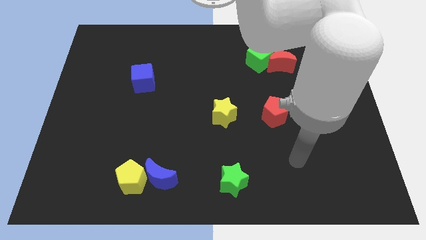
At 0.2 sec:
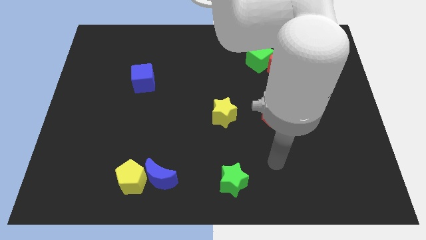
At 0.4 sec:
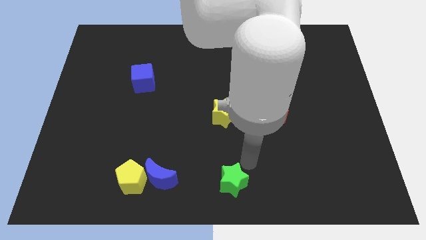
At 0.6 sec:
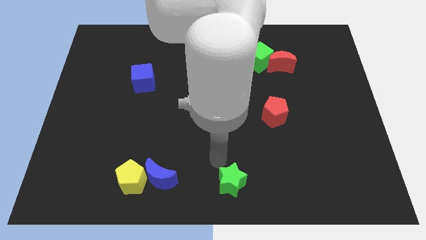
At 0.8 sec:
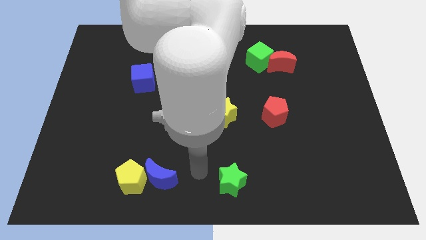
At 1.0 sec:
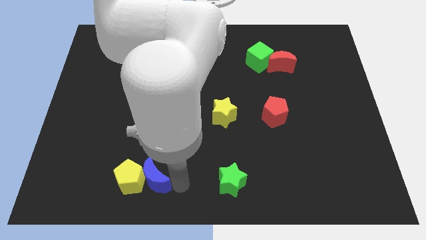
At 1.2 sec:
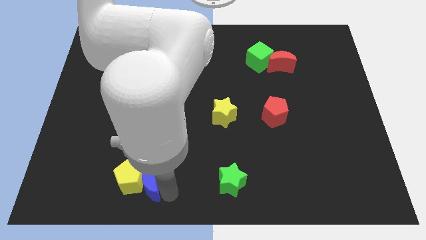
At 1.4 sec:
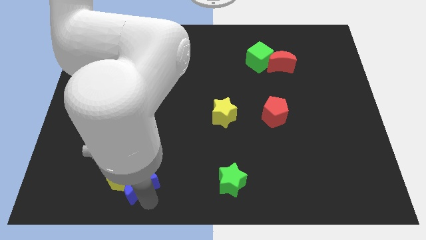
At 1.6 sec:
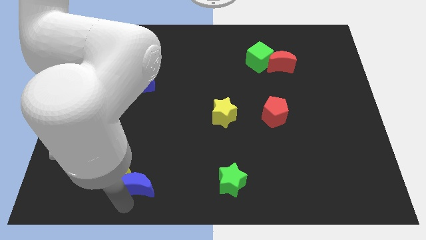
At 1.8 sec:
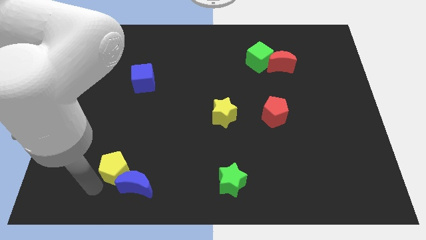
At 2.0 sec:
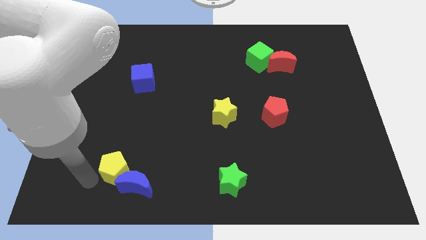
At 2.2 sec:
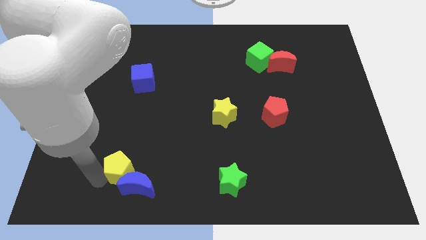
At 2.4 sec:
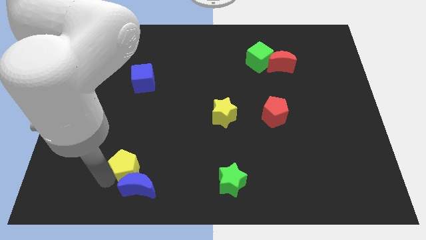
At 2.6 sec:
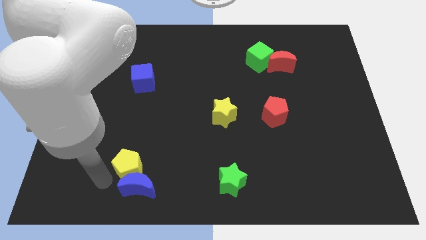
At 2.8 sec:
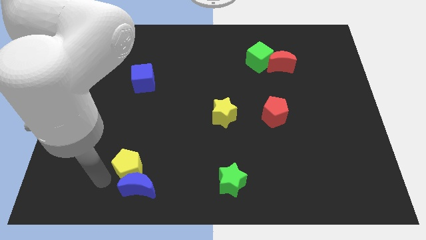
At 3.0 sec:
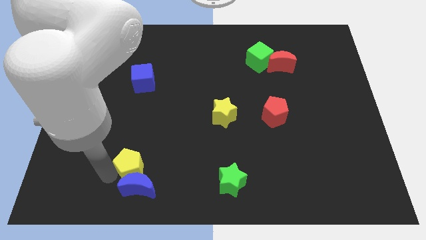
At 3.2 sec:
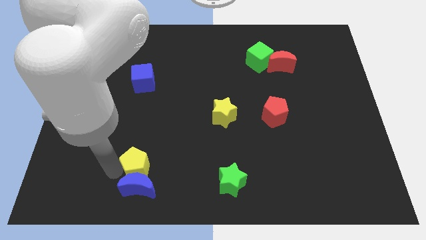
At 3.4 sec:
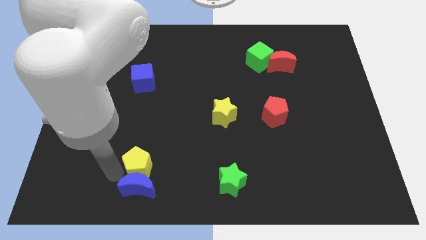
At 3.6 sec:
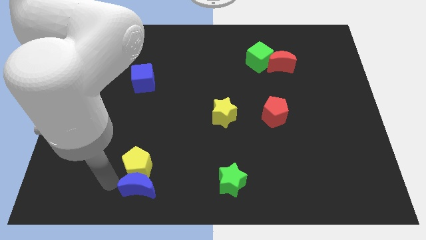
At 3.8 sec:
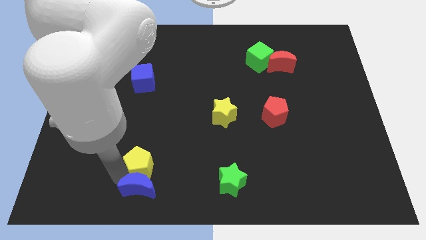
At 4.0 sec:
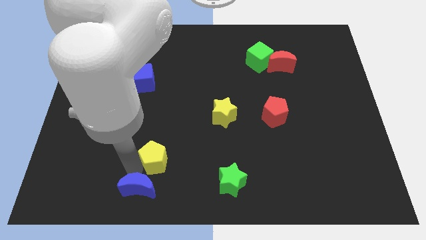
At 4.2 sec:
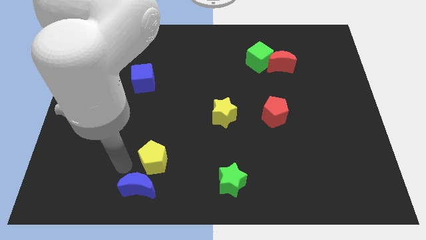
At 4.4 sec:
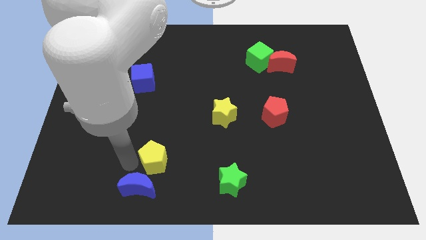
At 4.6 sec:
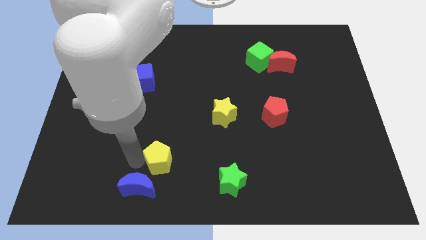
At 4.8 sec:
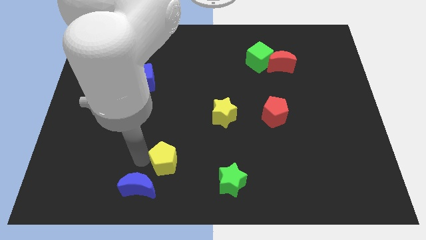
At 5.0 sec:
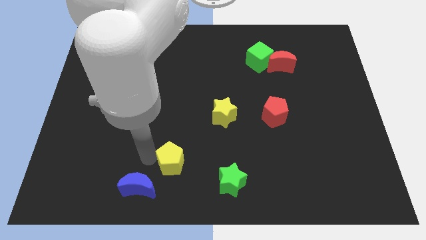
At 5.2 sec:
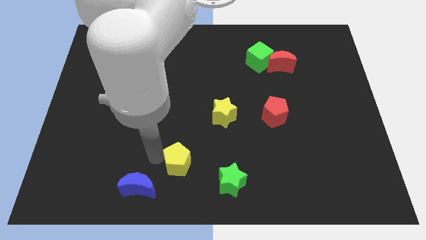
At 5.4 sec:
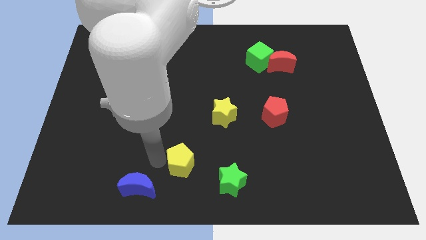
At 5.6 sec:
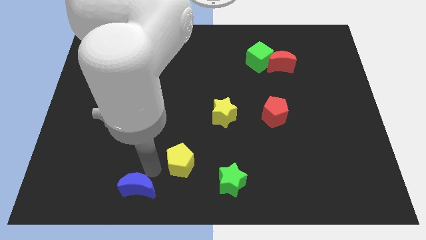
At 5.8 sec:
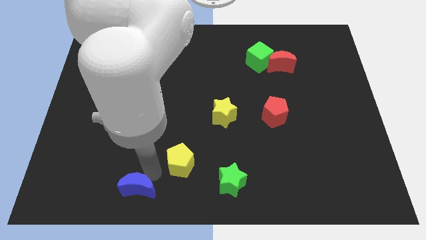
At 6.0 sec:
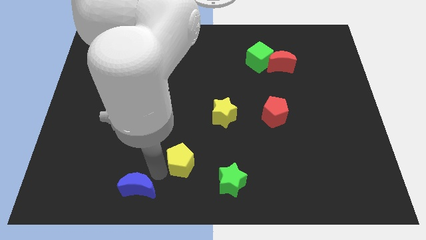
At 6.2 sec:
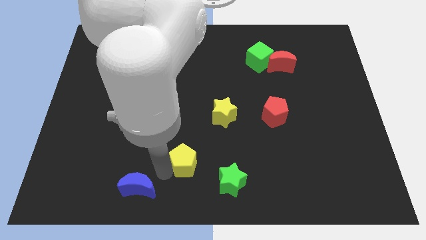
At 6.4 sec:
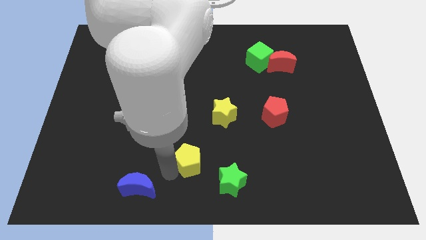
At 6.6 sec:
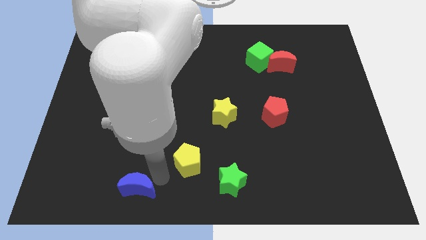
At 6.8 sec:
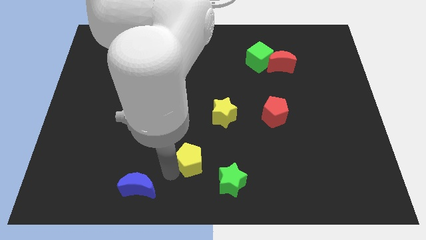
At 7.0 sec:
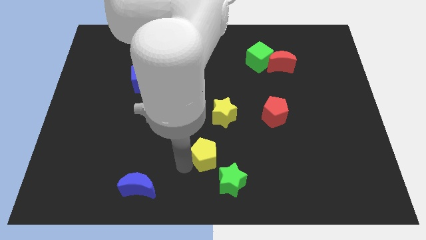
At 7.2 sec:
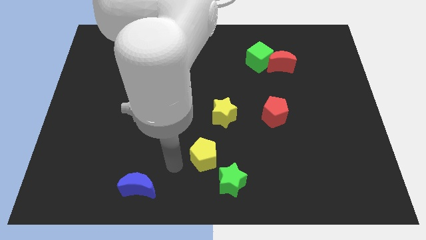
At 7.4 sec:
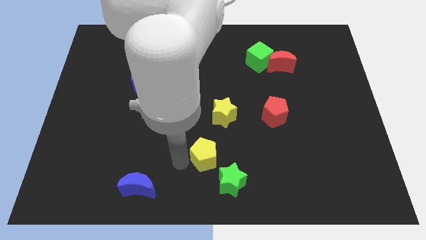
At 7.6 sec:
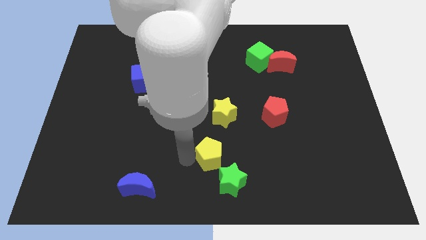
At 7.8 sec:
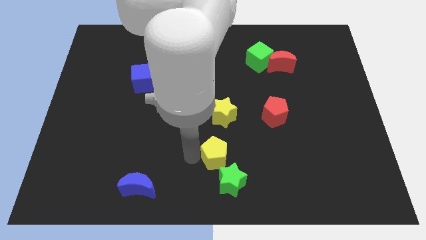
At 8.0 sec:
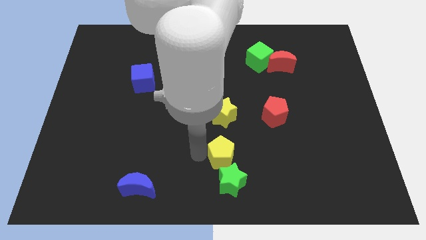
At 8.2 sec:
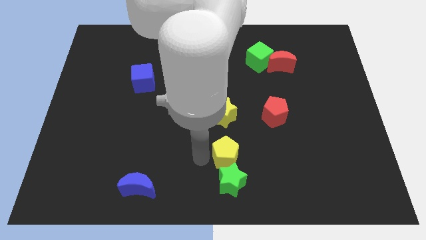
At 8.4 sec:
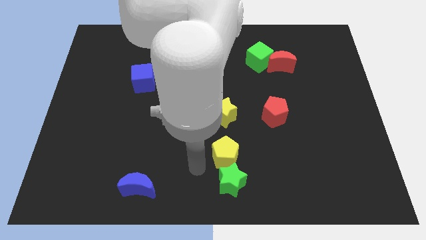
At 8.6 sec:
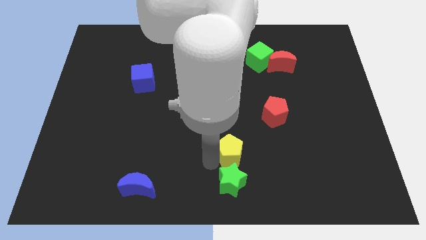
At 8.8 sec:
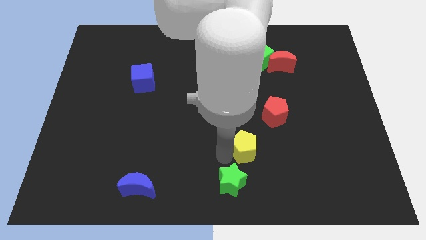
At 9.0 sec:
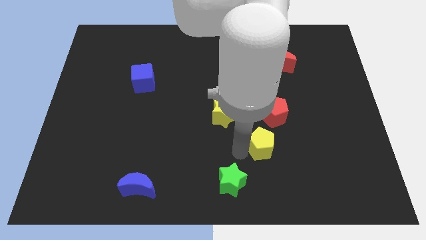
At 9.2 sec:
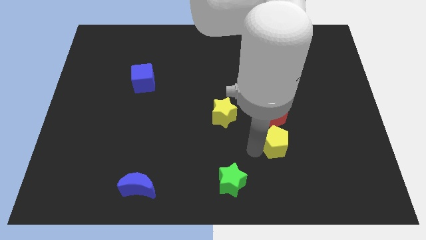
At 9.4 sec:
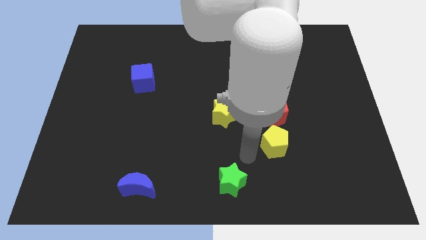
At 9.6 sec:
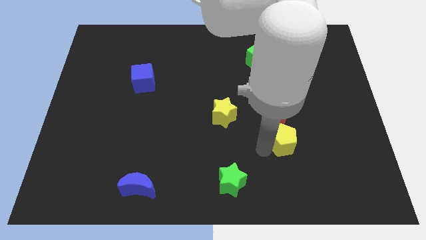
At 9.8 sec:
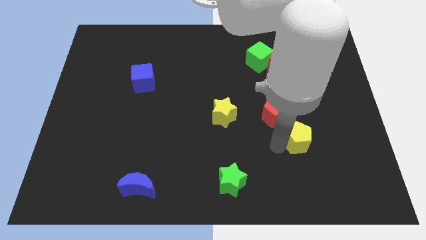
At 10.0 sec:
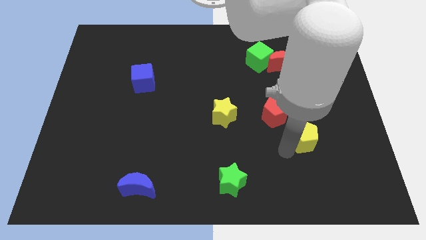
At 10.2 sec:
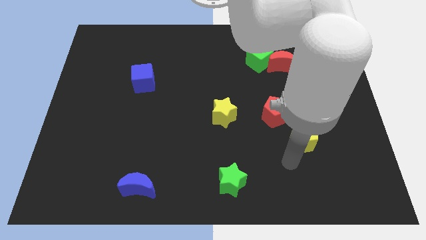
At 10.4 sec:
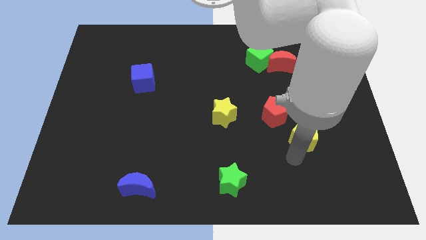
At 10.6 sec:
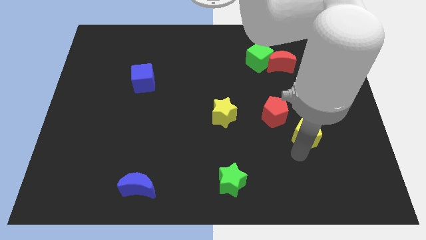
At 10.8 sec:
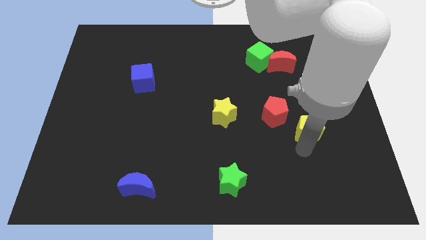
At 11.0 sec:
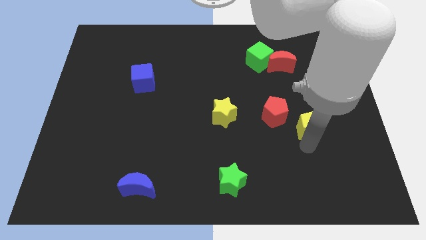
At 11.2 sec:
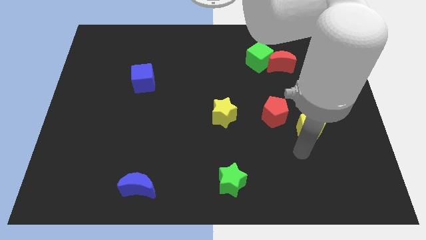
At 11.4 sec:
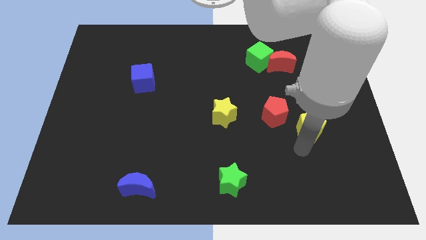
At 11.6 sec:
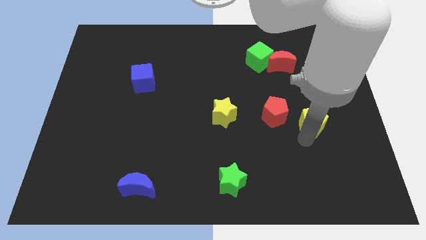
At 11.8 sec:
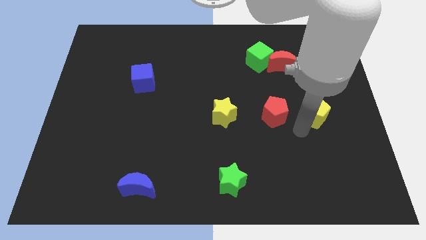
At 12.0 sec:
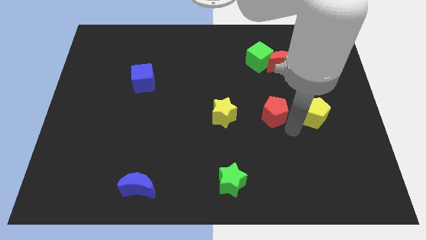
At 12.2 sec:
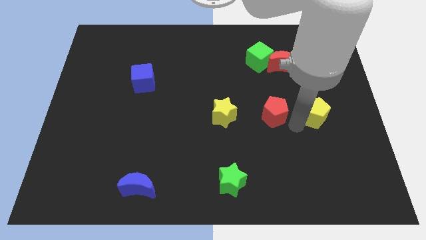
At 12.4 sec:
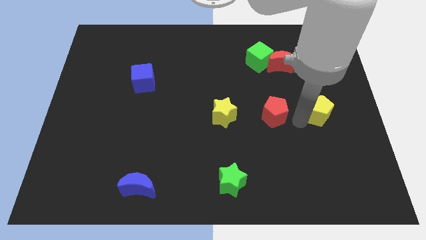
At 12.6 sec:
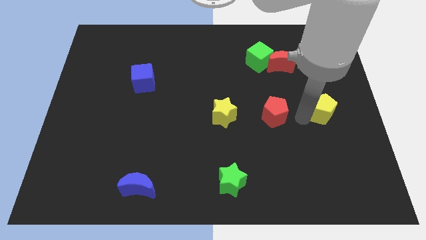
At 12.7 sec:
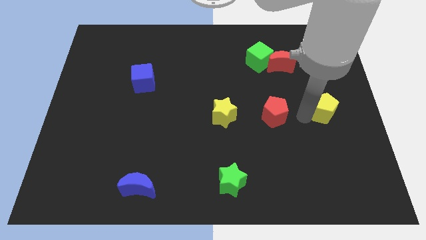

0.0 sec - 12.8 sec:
push the yellow pentagon to the right side

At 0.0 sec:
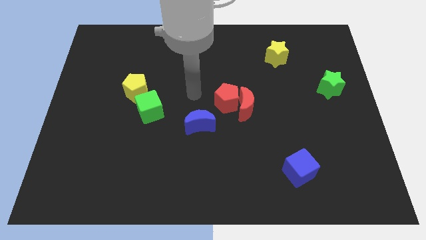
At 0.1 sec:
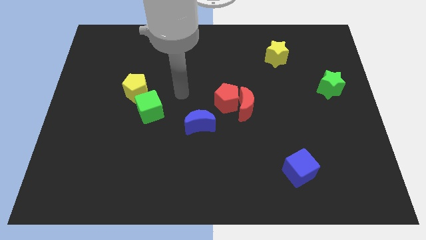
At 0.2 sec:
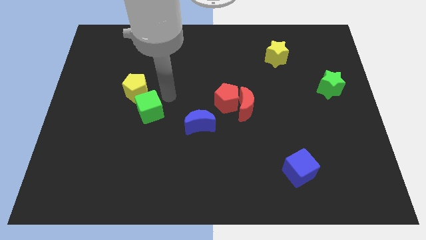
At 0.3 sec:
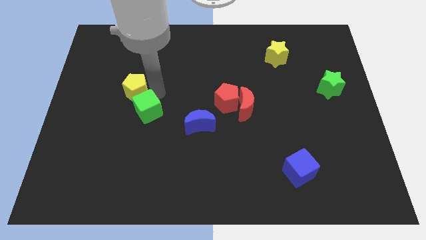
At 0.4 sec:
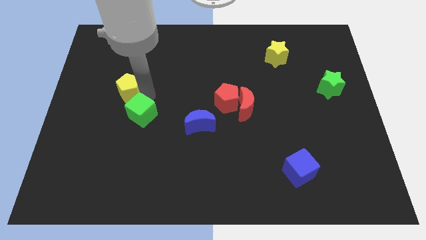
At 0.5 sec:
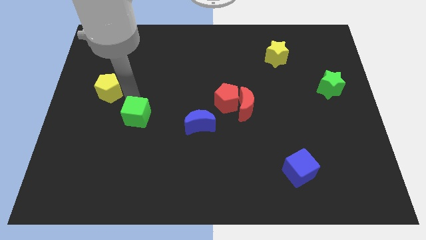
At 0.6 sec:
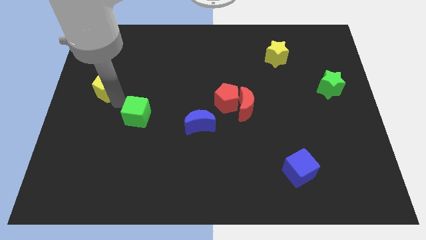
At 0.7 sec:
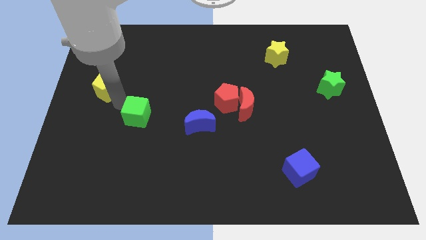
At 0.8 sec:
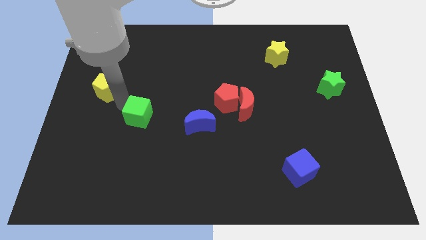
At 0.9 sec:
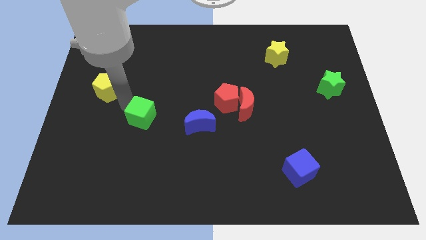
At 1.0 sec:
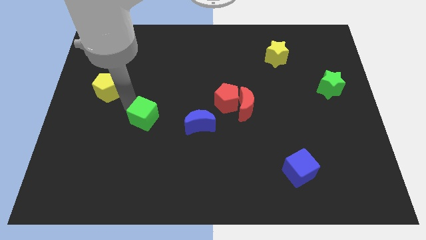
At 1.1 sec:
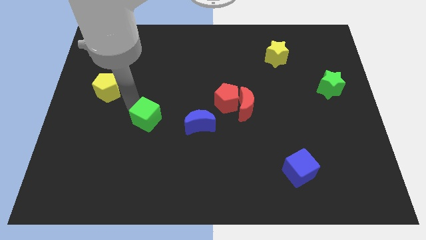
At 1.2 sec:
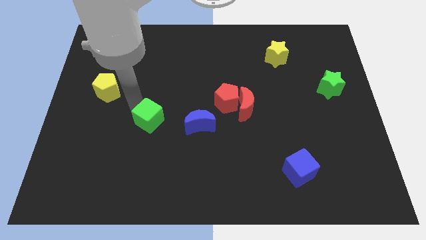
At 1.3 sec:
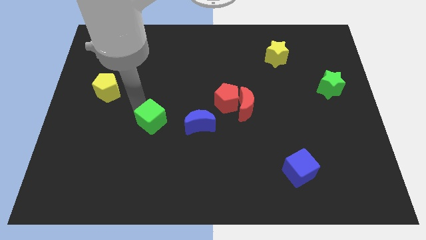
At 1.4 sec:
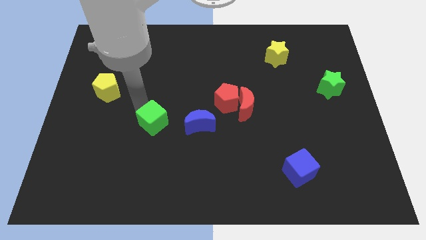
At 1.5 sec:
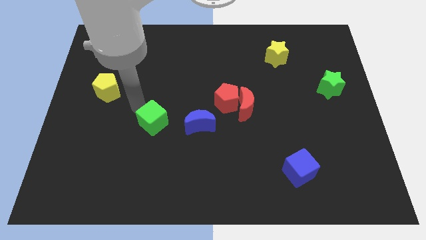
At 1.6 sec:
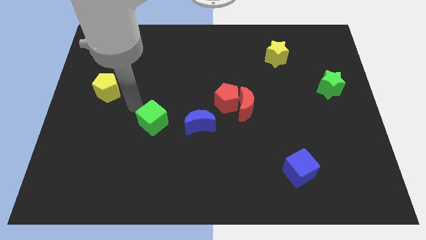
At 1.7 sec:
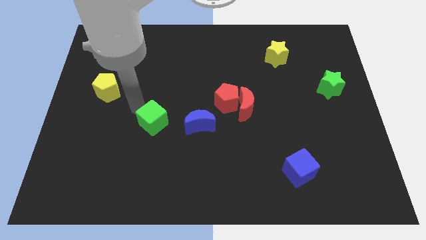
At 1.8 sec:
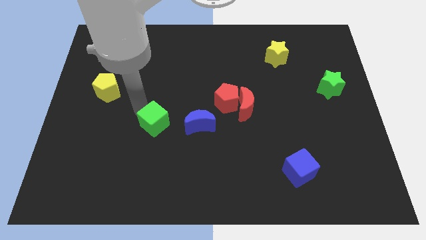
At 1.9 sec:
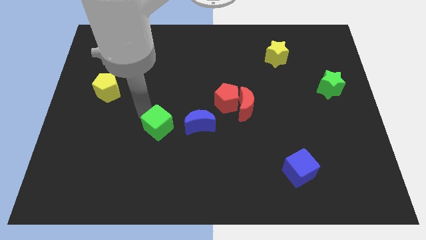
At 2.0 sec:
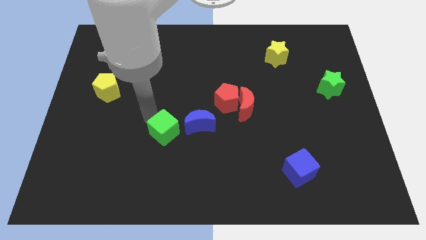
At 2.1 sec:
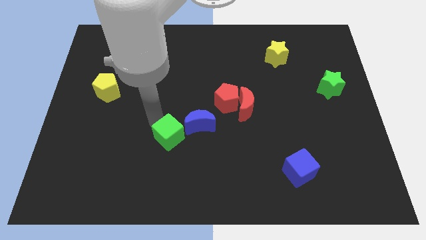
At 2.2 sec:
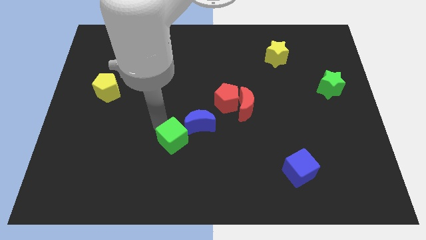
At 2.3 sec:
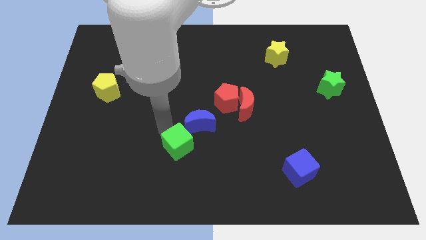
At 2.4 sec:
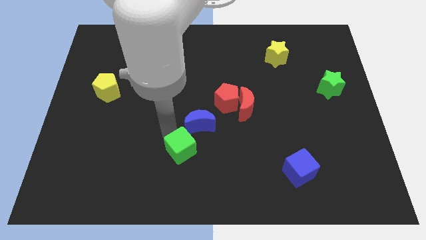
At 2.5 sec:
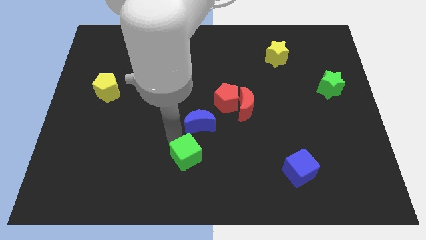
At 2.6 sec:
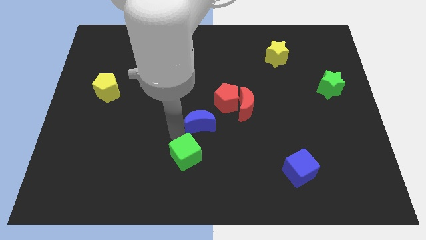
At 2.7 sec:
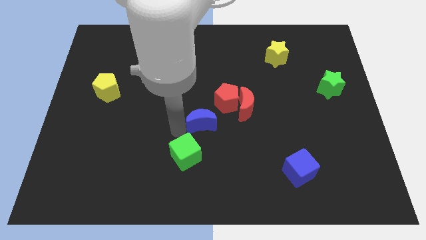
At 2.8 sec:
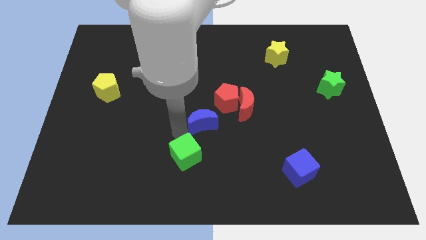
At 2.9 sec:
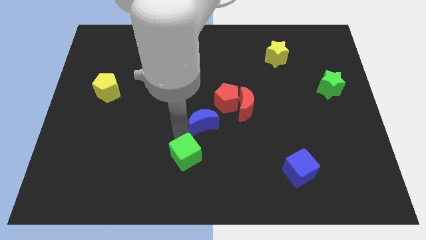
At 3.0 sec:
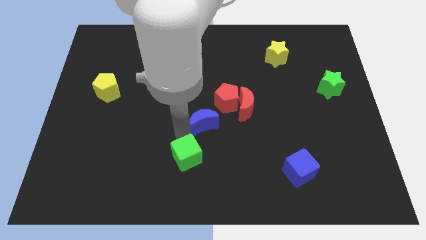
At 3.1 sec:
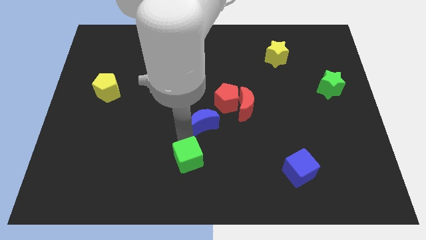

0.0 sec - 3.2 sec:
slide the green cube to the bottom
